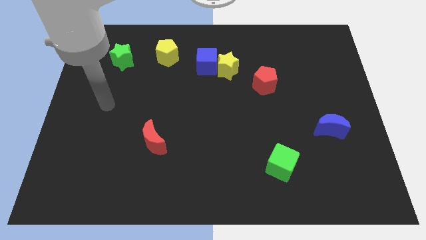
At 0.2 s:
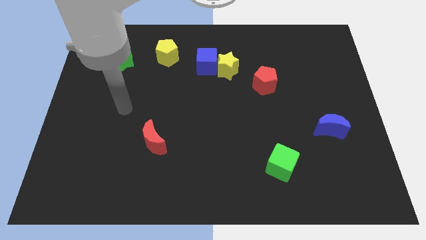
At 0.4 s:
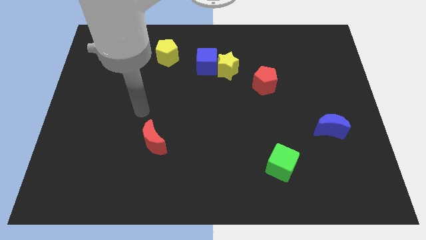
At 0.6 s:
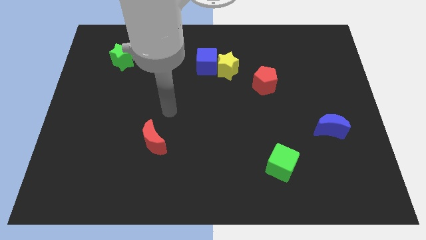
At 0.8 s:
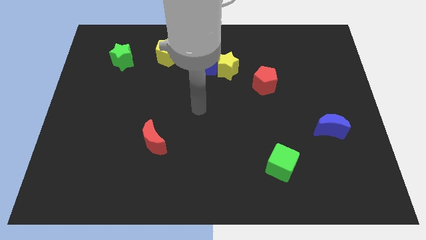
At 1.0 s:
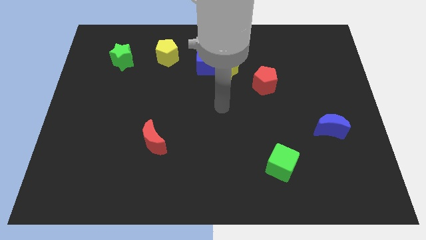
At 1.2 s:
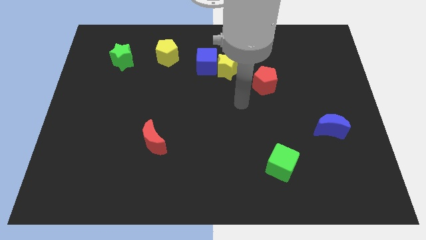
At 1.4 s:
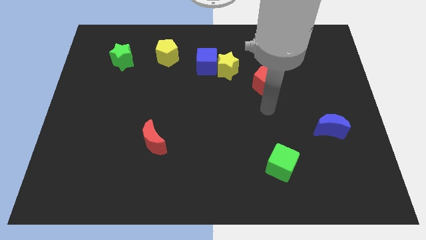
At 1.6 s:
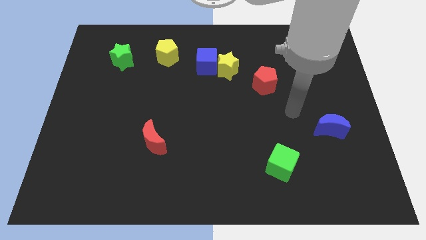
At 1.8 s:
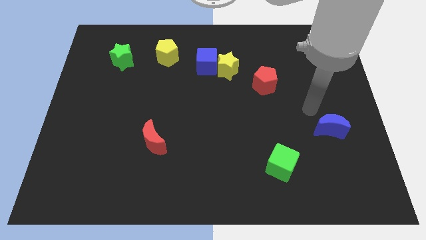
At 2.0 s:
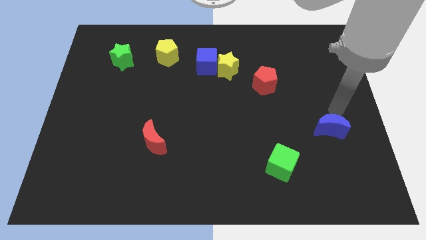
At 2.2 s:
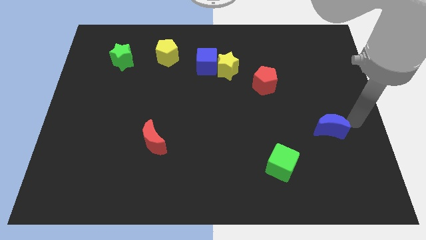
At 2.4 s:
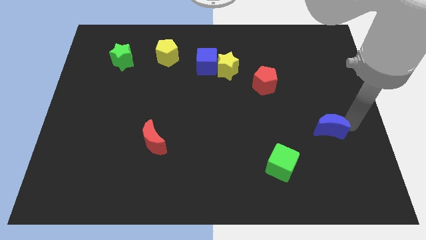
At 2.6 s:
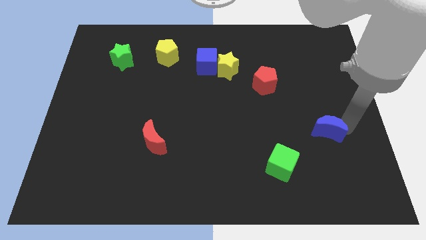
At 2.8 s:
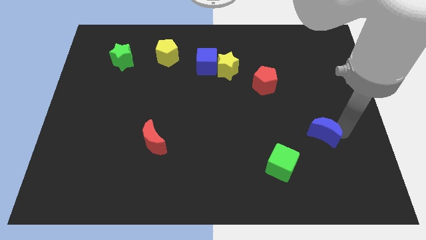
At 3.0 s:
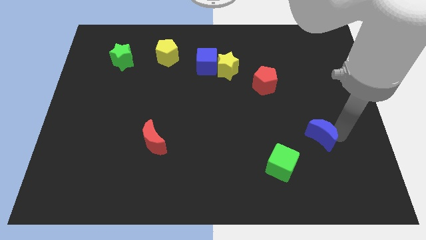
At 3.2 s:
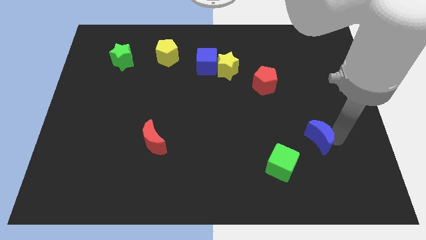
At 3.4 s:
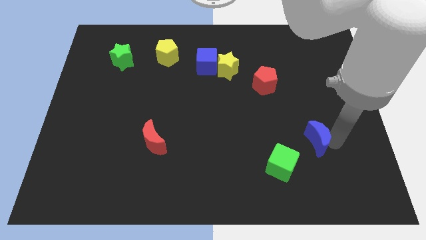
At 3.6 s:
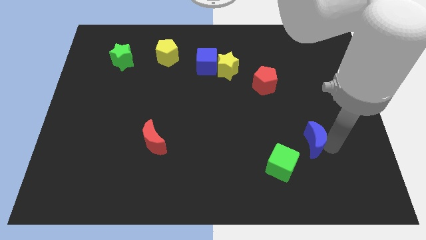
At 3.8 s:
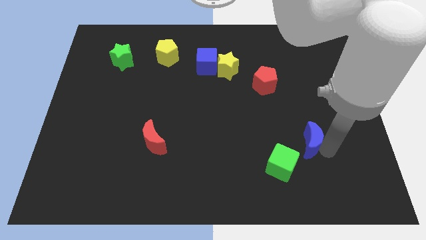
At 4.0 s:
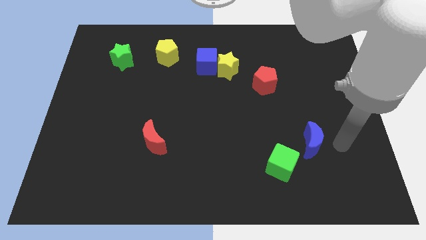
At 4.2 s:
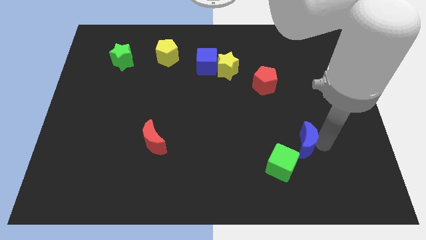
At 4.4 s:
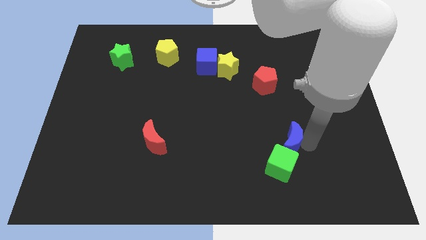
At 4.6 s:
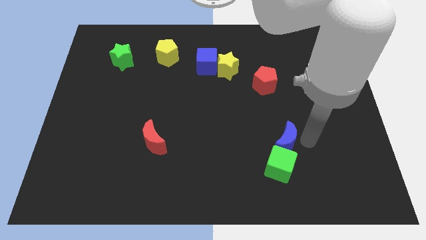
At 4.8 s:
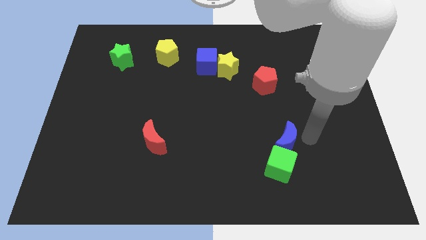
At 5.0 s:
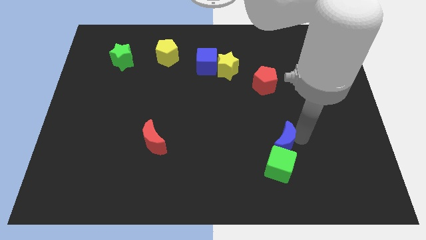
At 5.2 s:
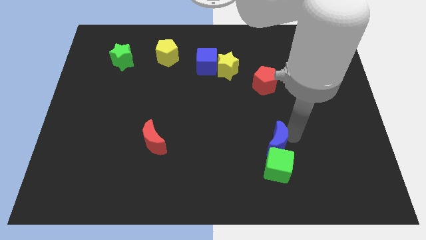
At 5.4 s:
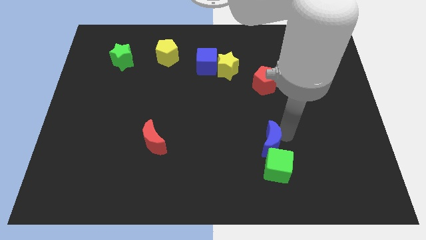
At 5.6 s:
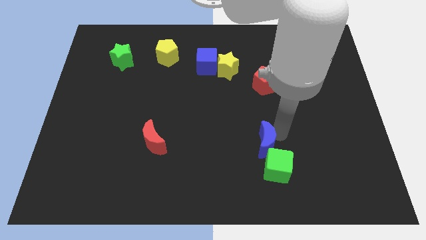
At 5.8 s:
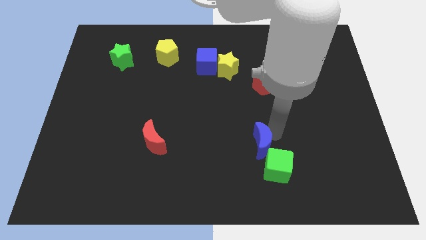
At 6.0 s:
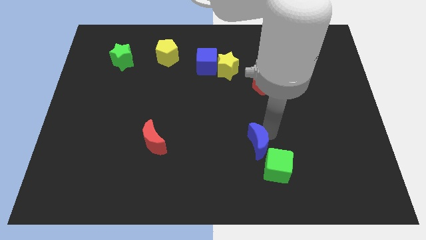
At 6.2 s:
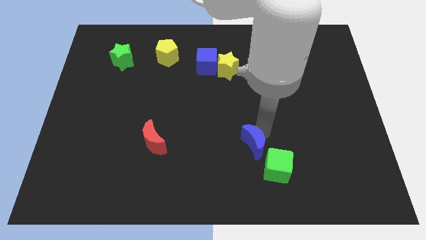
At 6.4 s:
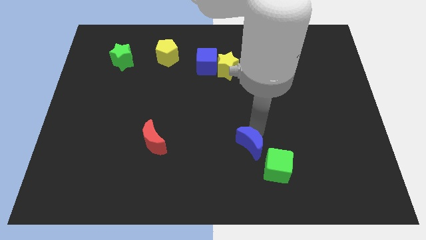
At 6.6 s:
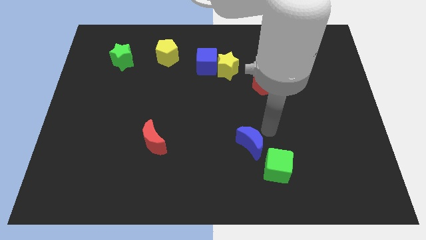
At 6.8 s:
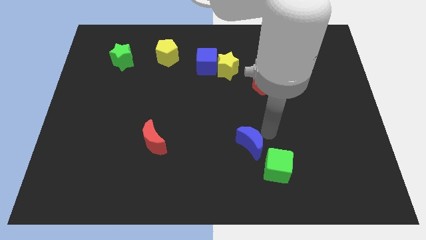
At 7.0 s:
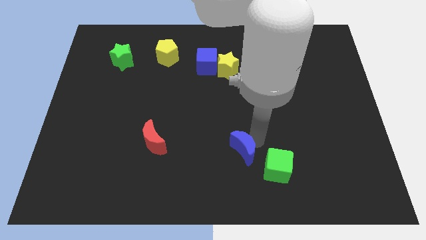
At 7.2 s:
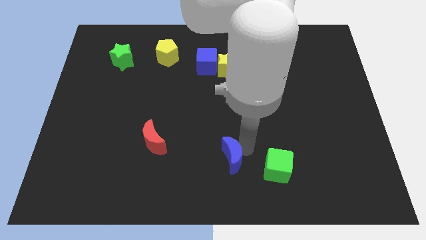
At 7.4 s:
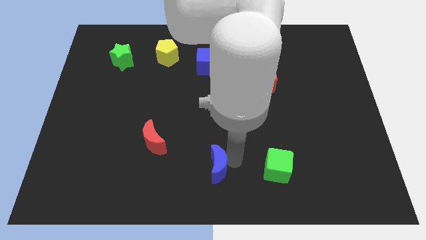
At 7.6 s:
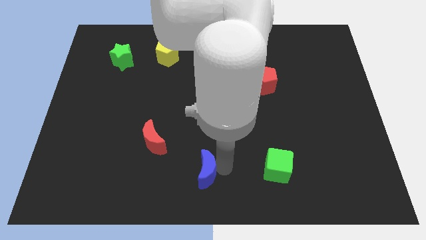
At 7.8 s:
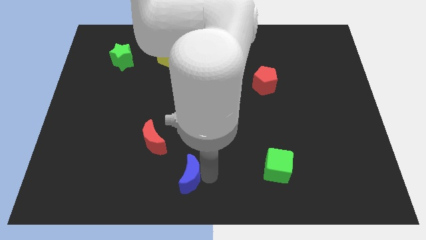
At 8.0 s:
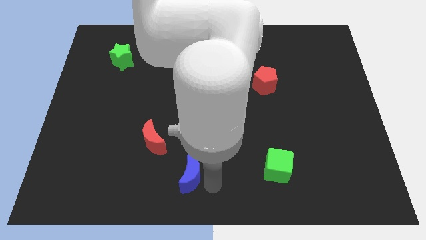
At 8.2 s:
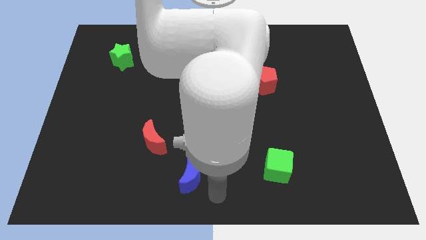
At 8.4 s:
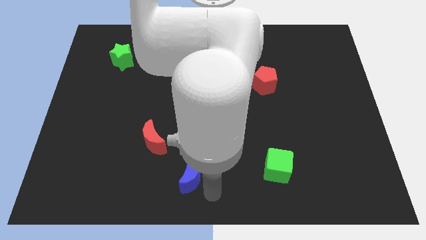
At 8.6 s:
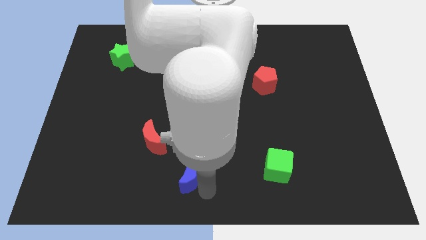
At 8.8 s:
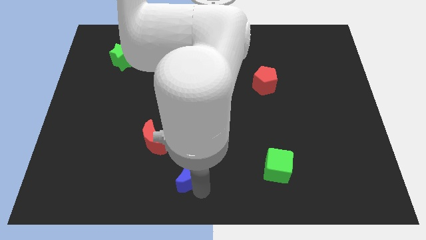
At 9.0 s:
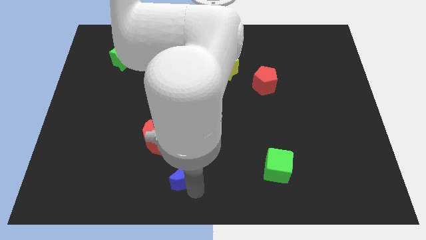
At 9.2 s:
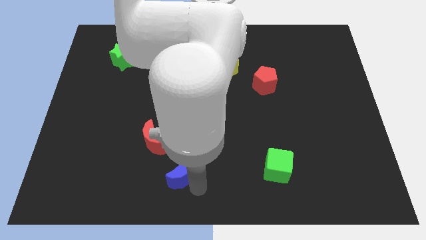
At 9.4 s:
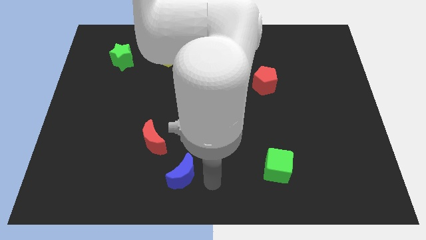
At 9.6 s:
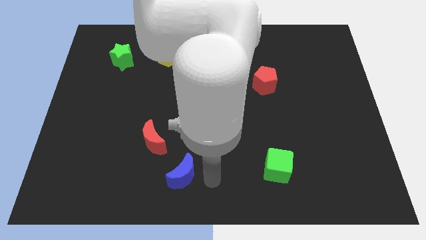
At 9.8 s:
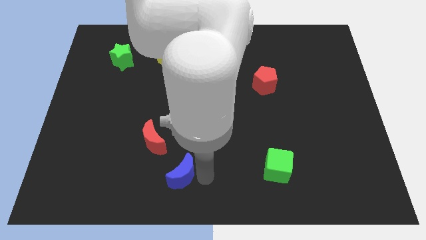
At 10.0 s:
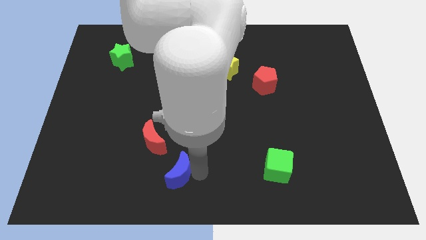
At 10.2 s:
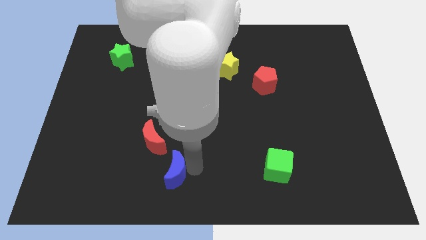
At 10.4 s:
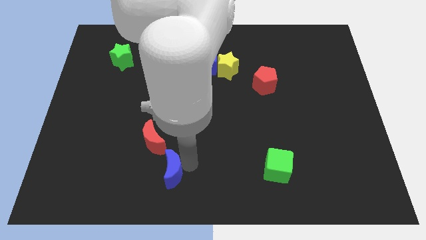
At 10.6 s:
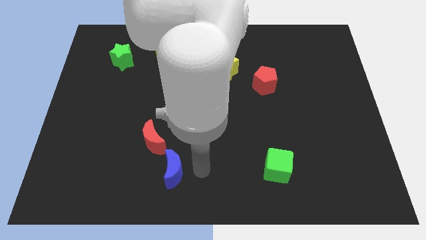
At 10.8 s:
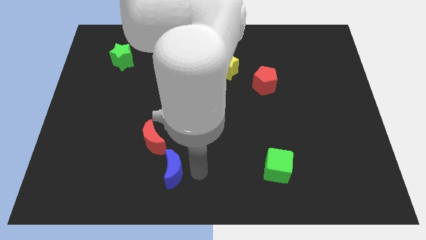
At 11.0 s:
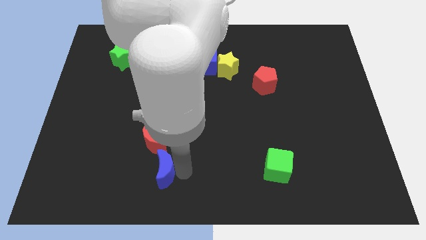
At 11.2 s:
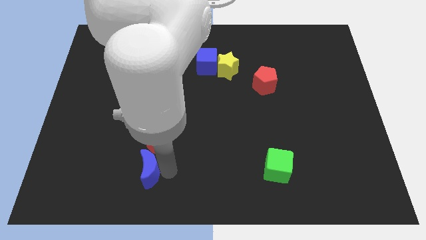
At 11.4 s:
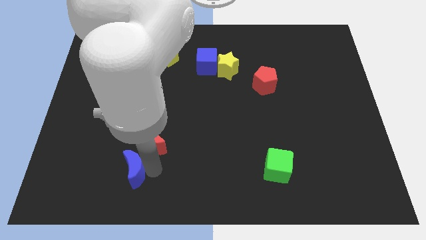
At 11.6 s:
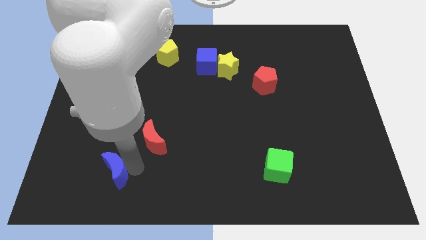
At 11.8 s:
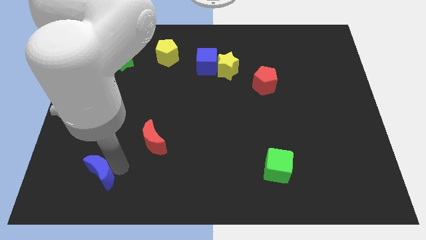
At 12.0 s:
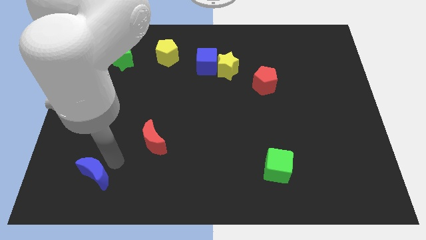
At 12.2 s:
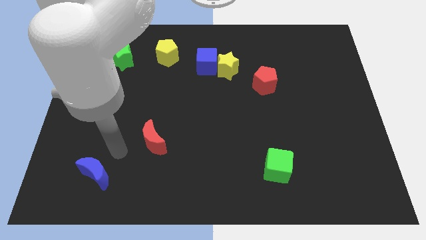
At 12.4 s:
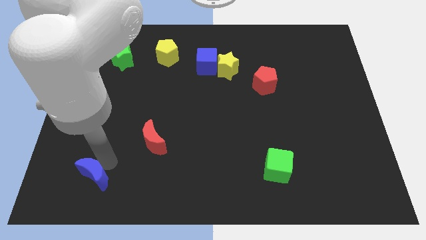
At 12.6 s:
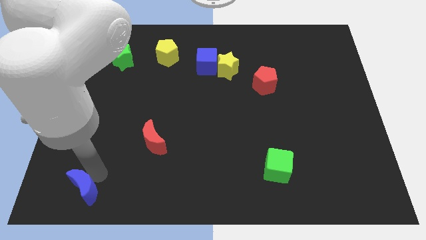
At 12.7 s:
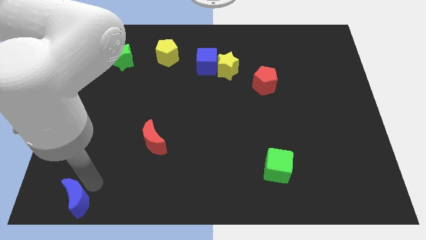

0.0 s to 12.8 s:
push the blue moon to the bottom left corner
